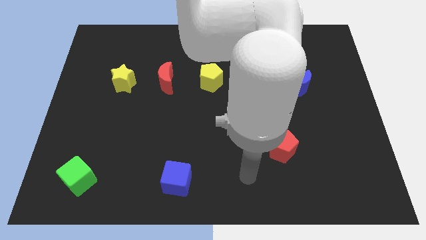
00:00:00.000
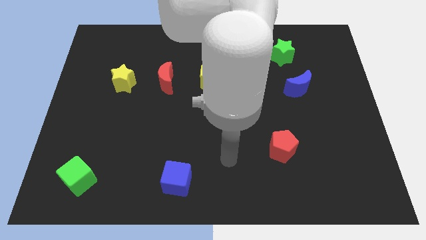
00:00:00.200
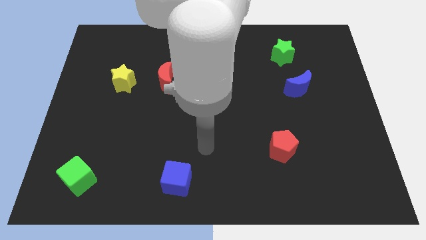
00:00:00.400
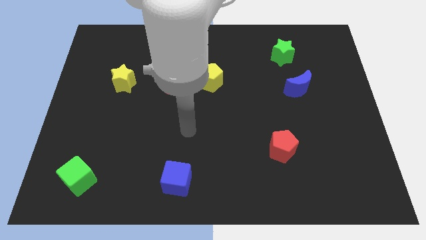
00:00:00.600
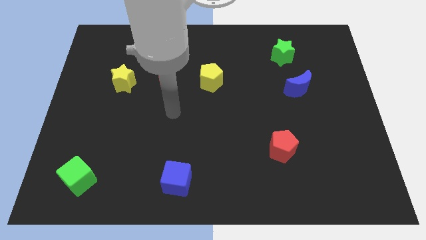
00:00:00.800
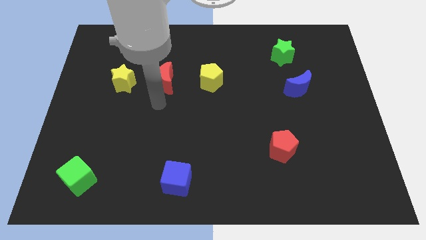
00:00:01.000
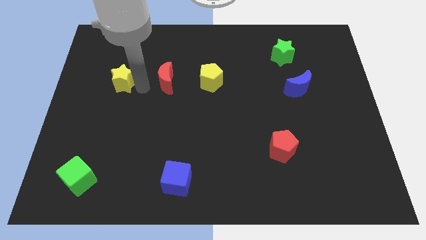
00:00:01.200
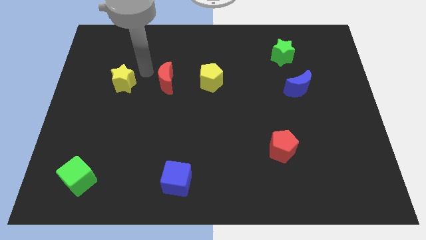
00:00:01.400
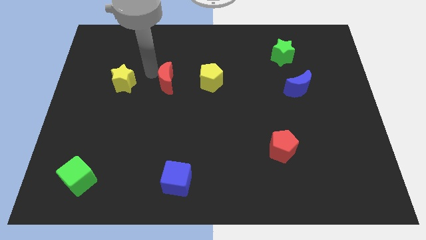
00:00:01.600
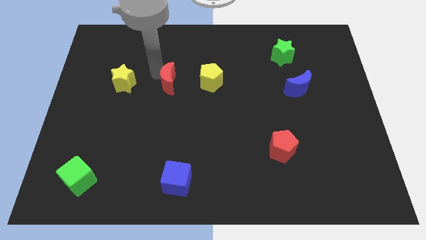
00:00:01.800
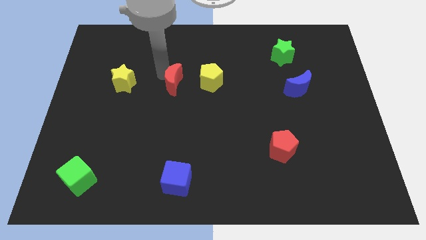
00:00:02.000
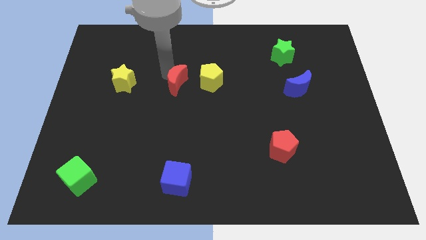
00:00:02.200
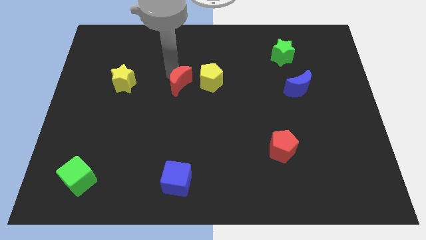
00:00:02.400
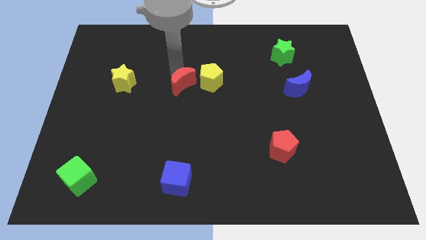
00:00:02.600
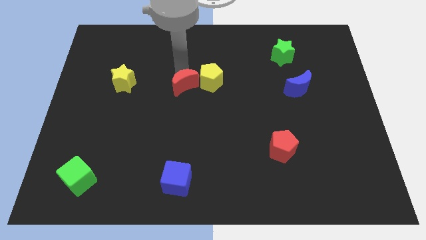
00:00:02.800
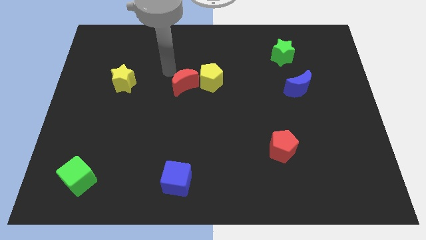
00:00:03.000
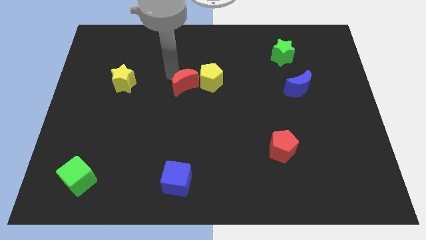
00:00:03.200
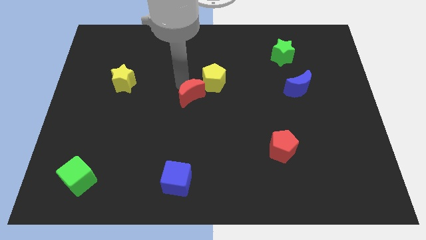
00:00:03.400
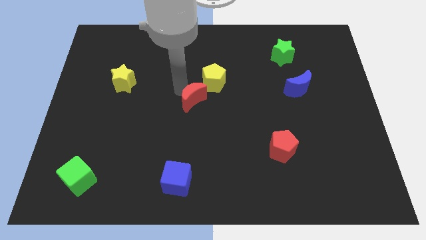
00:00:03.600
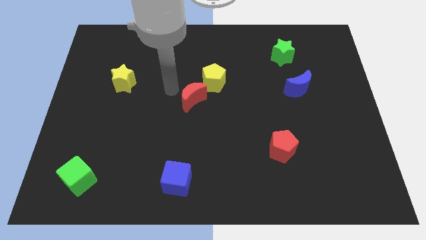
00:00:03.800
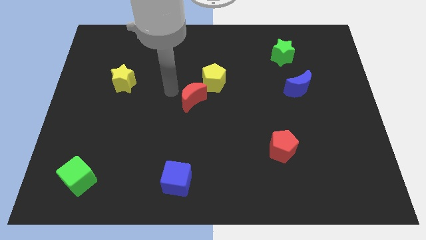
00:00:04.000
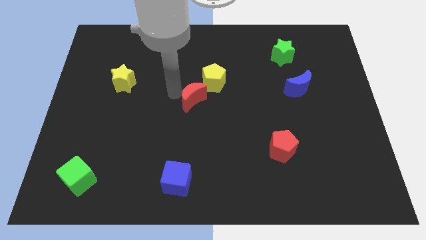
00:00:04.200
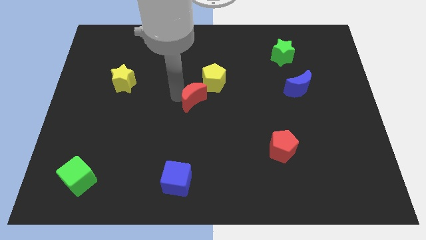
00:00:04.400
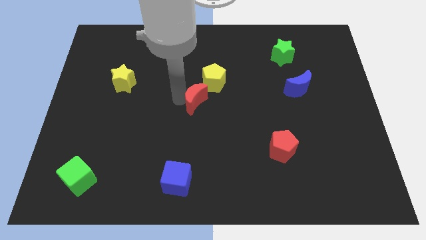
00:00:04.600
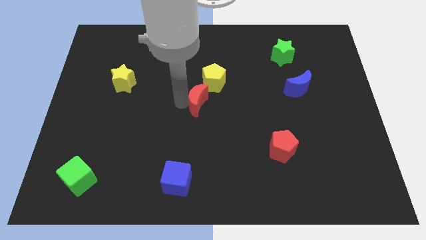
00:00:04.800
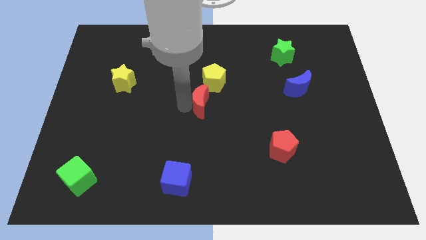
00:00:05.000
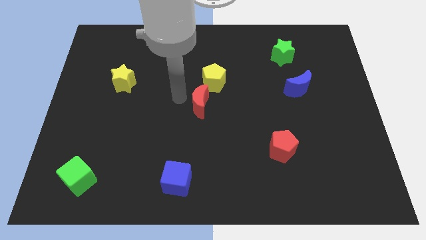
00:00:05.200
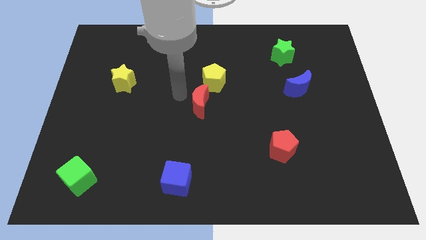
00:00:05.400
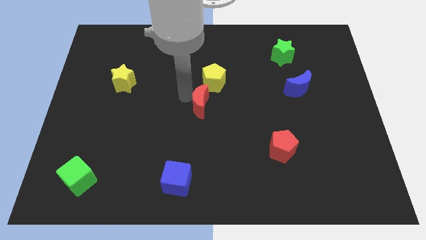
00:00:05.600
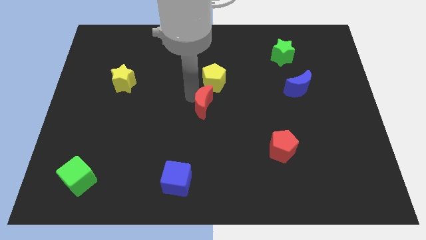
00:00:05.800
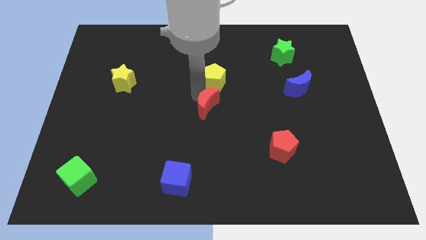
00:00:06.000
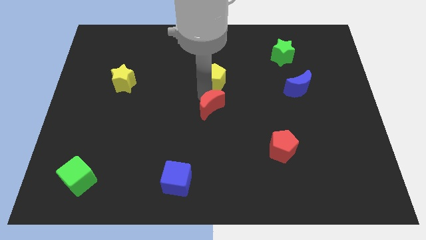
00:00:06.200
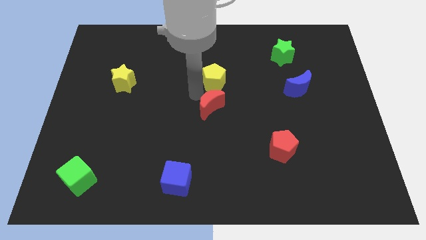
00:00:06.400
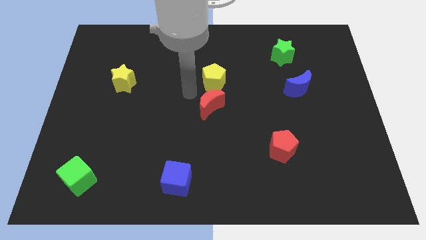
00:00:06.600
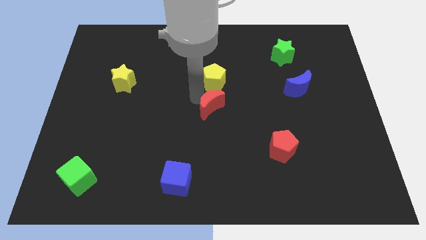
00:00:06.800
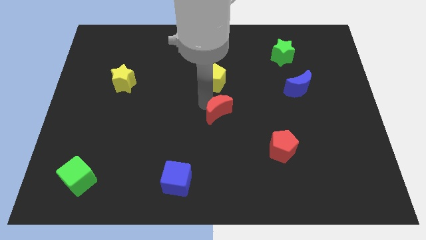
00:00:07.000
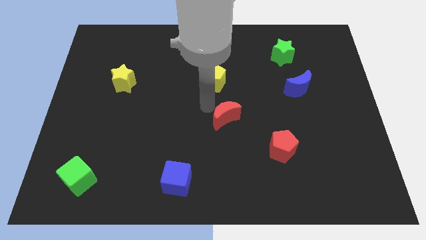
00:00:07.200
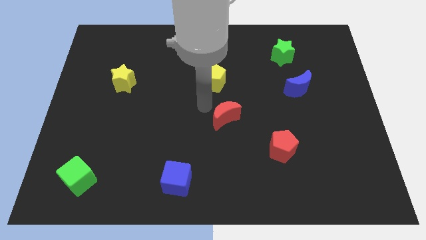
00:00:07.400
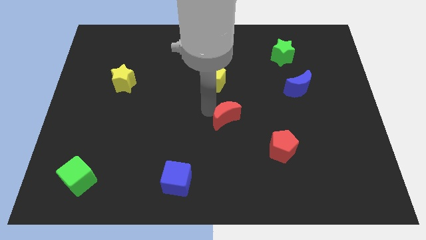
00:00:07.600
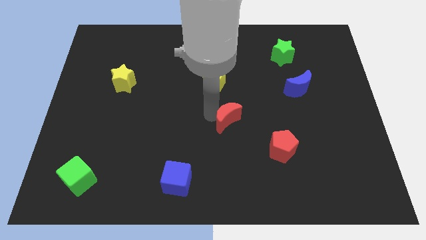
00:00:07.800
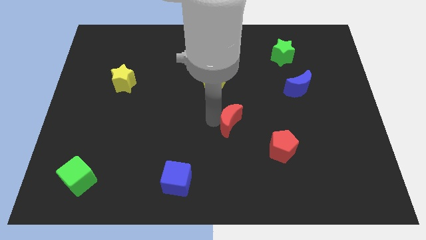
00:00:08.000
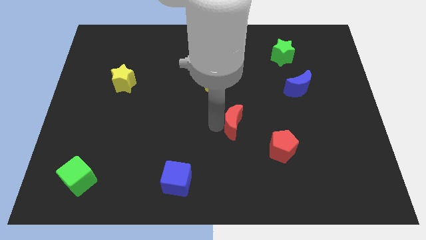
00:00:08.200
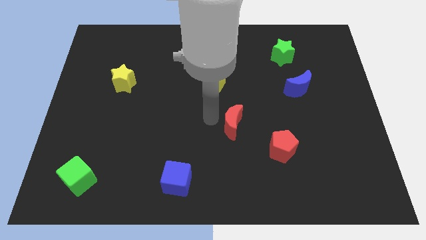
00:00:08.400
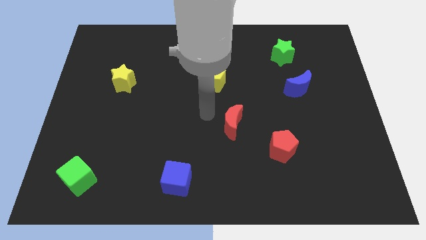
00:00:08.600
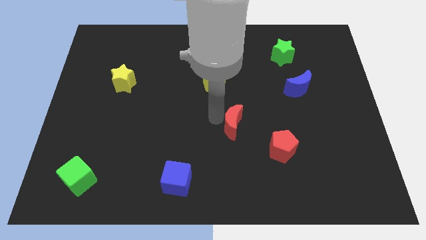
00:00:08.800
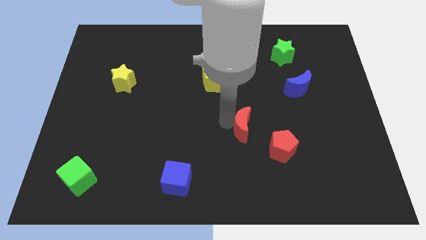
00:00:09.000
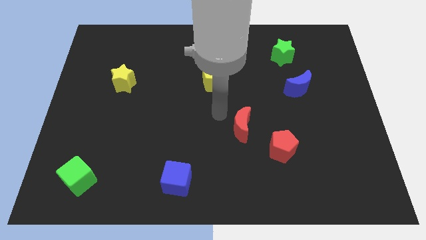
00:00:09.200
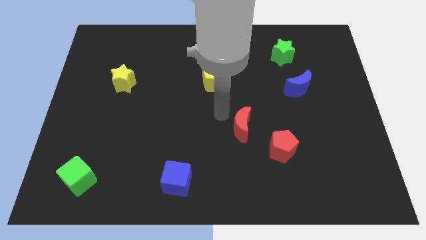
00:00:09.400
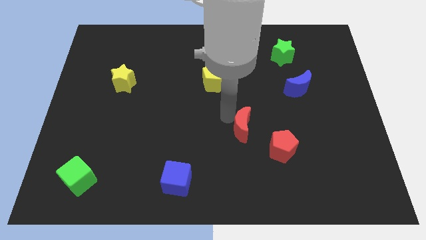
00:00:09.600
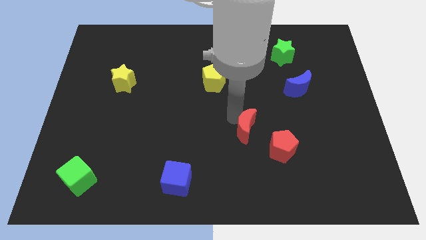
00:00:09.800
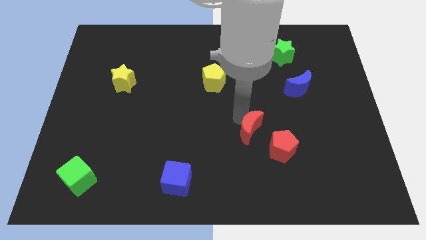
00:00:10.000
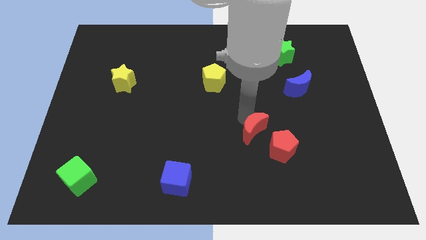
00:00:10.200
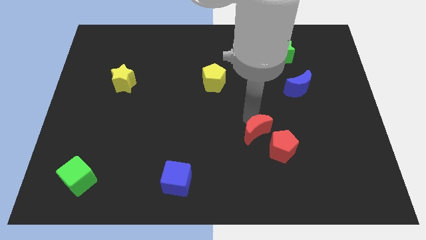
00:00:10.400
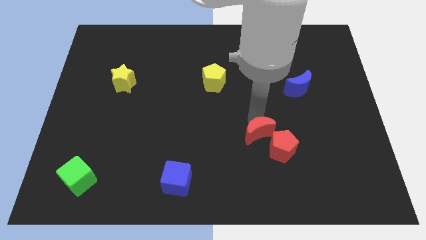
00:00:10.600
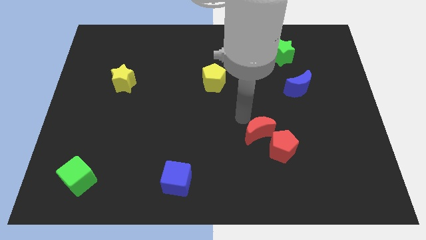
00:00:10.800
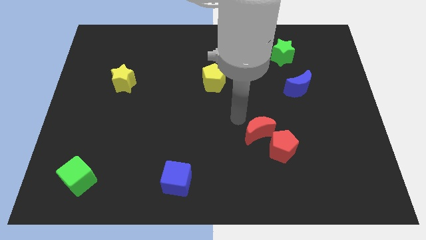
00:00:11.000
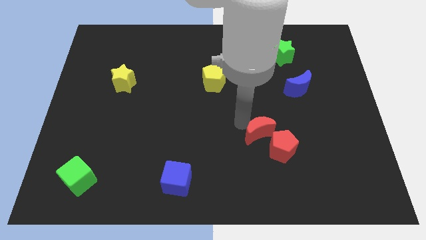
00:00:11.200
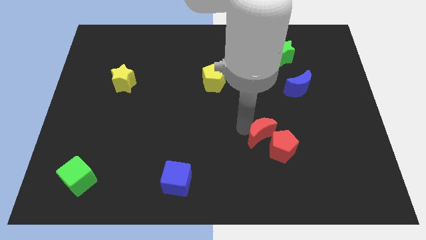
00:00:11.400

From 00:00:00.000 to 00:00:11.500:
move the red moon towards the red pentagon

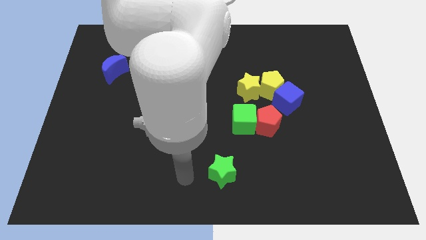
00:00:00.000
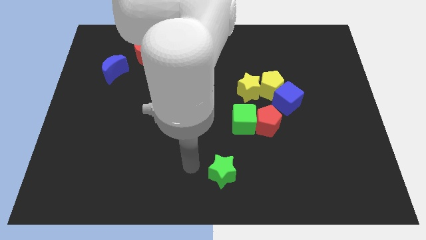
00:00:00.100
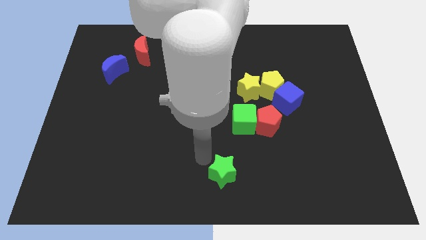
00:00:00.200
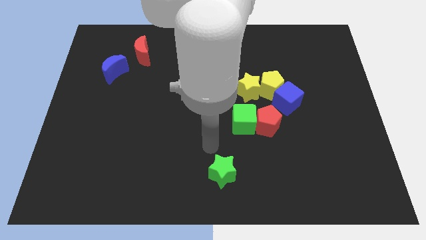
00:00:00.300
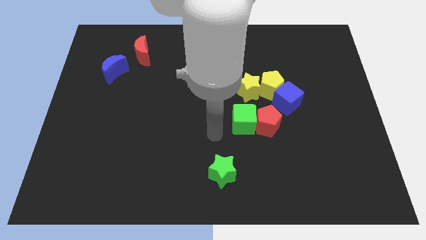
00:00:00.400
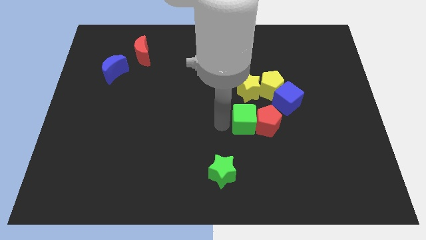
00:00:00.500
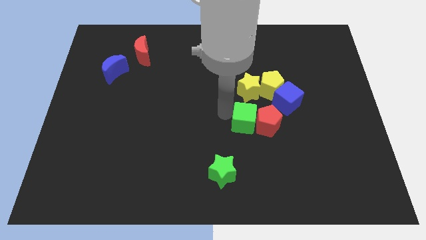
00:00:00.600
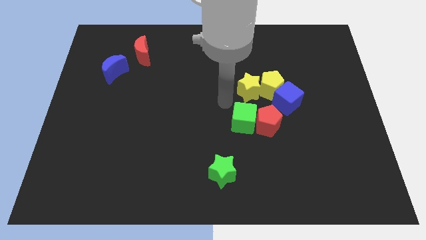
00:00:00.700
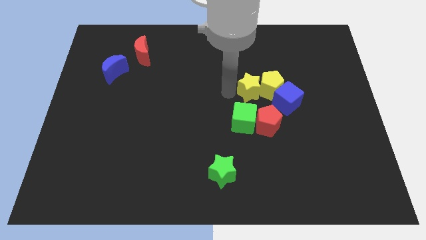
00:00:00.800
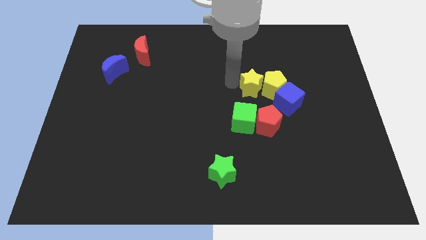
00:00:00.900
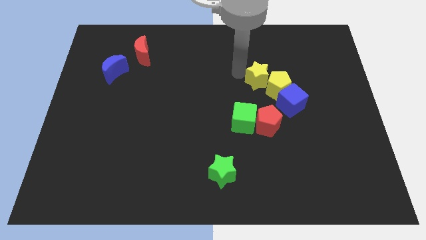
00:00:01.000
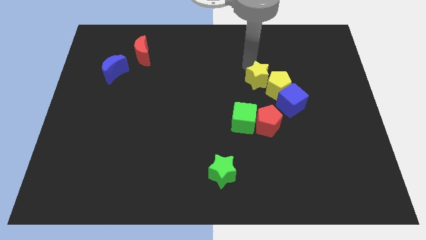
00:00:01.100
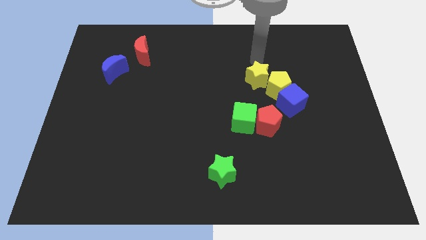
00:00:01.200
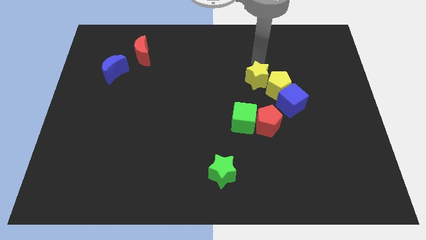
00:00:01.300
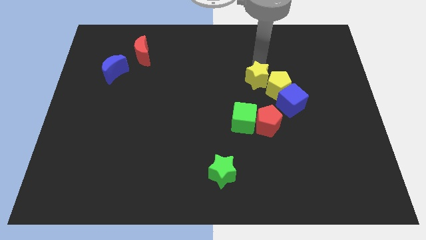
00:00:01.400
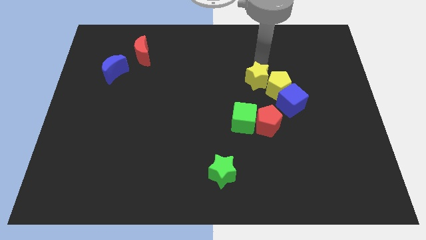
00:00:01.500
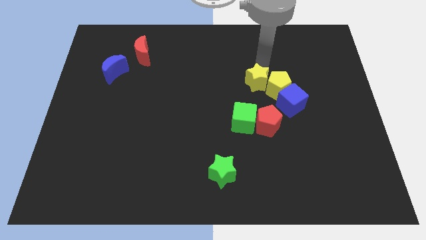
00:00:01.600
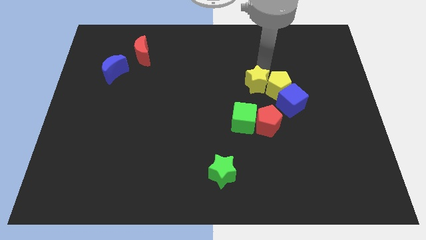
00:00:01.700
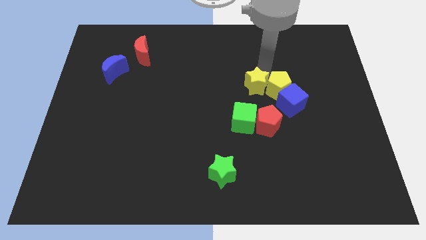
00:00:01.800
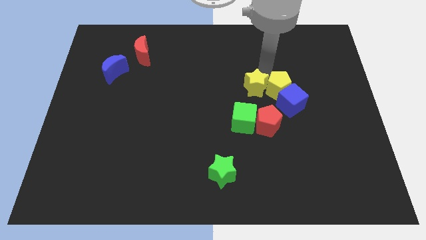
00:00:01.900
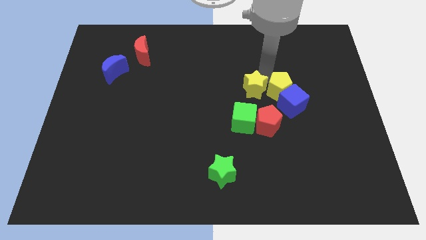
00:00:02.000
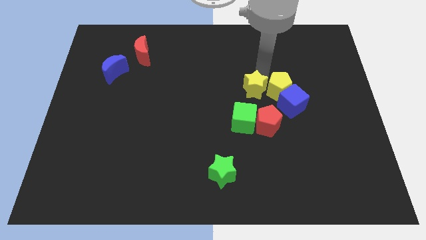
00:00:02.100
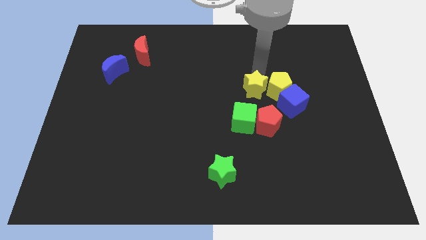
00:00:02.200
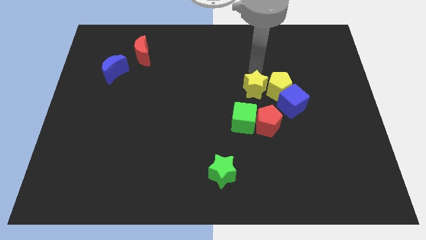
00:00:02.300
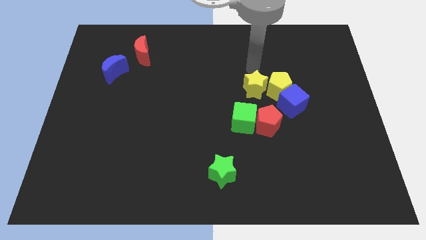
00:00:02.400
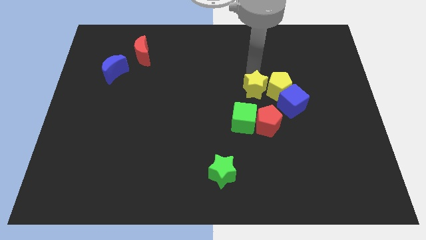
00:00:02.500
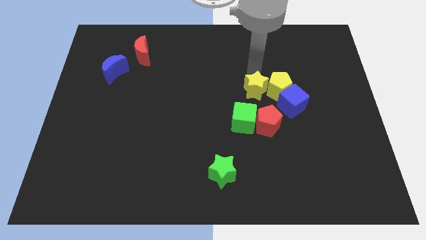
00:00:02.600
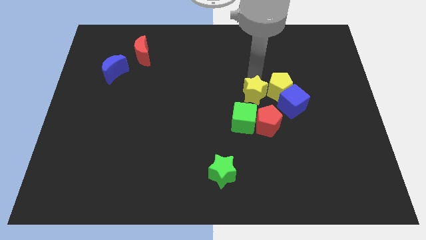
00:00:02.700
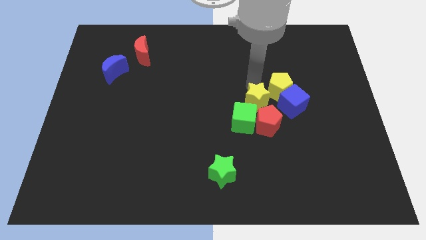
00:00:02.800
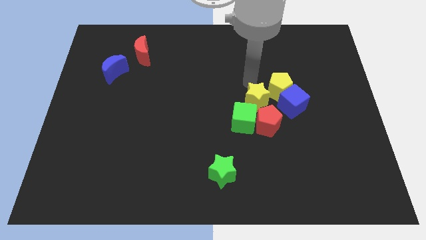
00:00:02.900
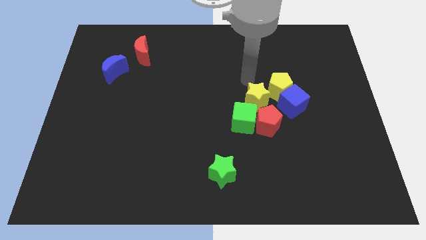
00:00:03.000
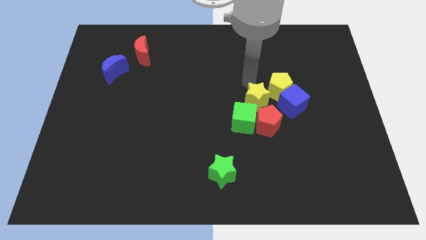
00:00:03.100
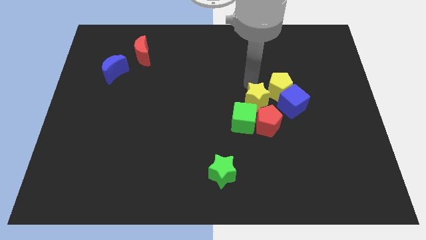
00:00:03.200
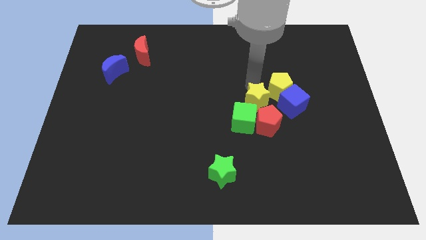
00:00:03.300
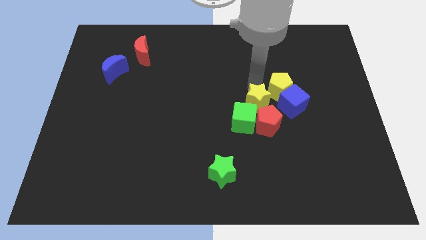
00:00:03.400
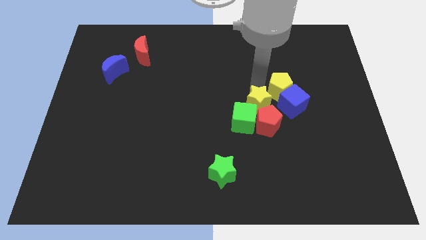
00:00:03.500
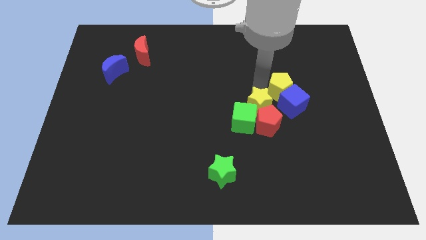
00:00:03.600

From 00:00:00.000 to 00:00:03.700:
slide the yellow star close to the red pentagon
